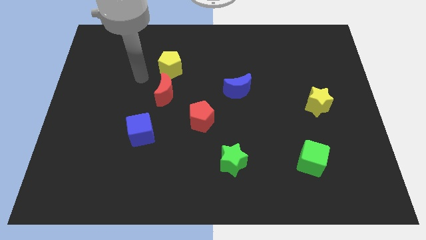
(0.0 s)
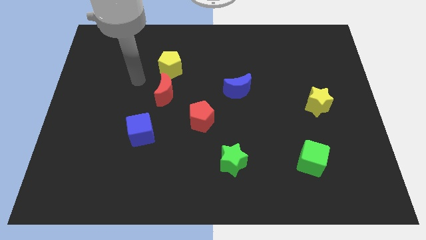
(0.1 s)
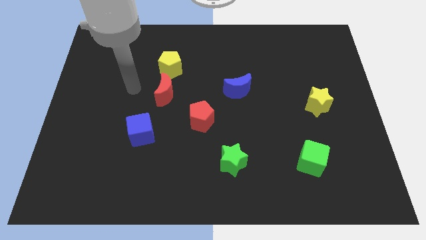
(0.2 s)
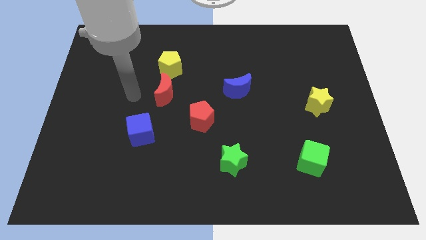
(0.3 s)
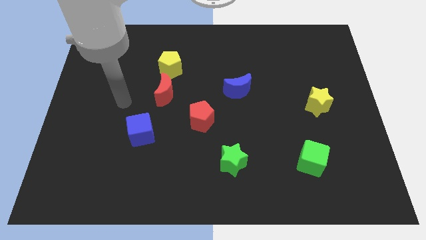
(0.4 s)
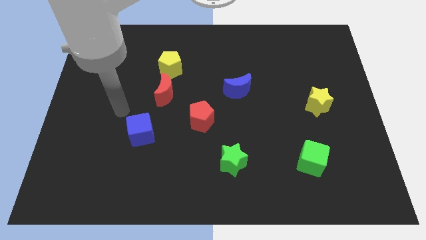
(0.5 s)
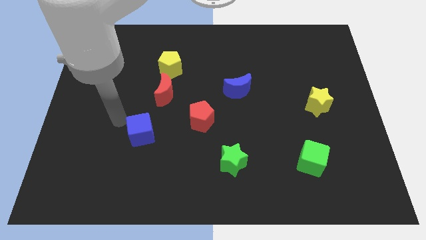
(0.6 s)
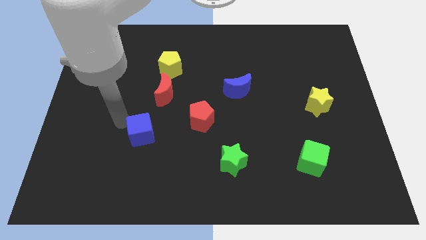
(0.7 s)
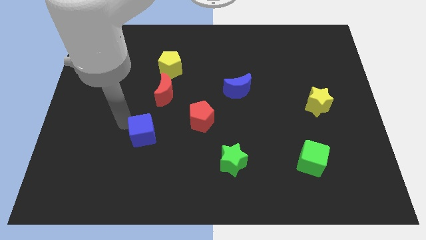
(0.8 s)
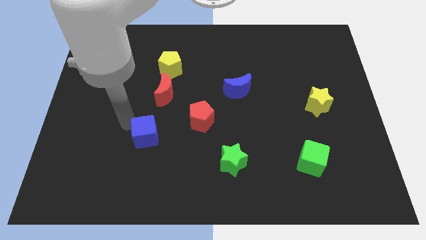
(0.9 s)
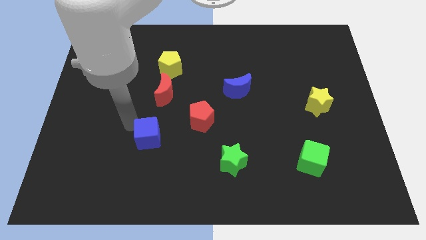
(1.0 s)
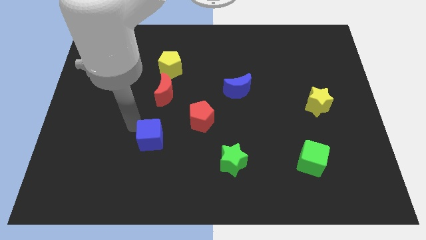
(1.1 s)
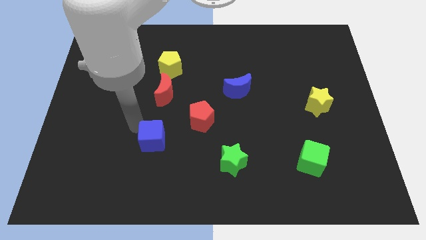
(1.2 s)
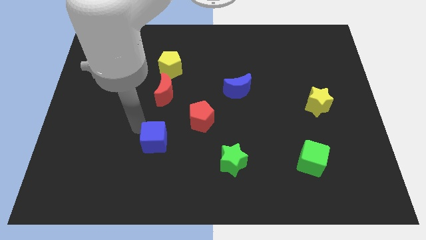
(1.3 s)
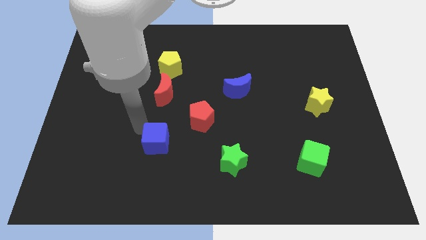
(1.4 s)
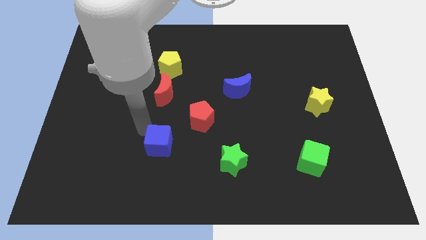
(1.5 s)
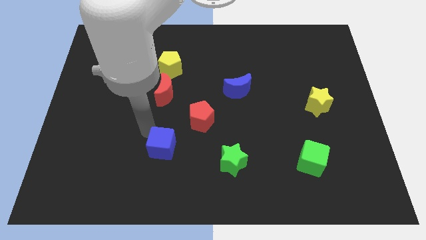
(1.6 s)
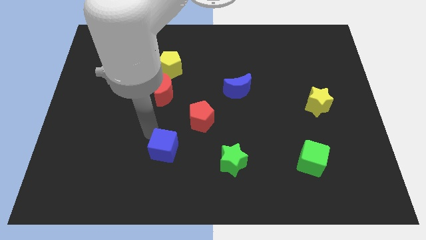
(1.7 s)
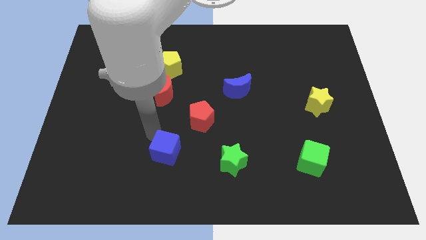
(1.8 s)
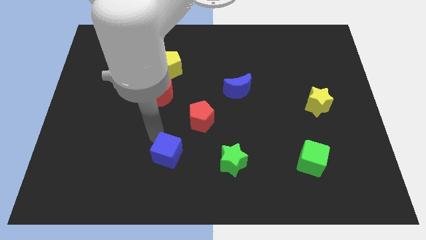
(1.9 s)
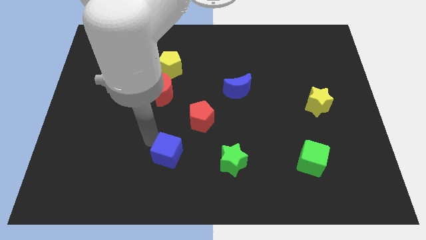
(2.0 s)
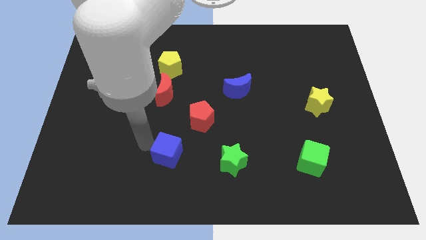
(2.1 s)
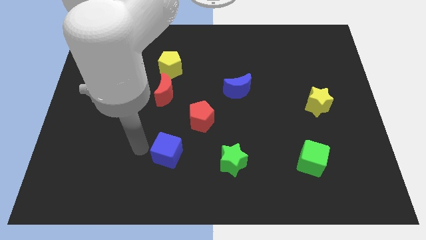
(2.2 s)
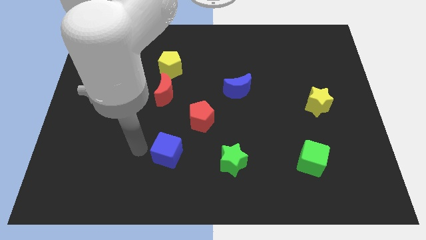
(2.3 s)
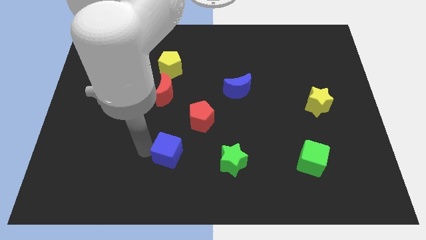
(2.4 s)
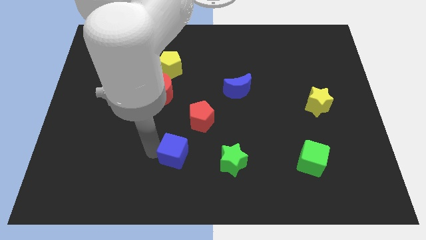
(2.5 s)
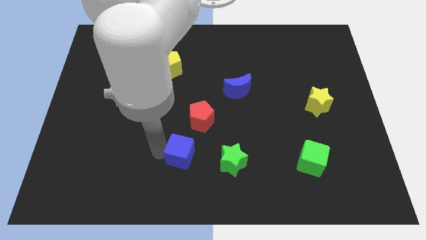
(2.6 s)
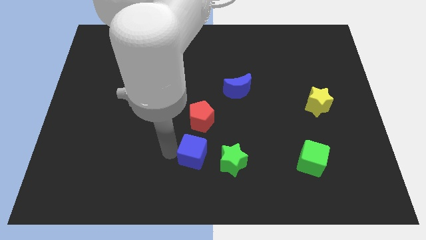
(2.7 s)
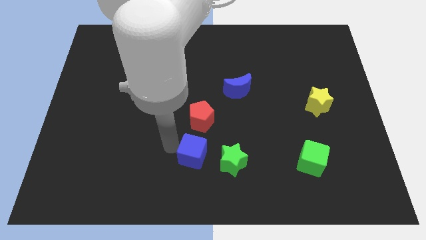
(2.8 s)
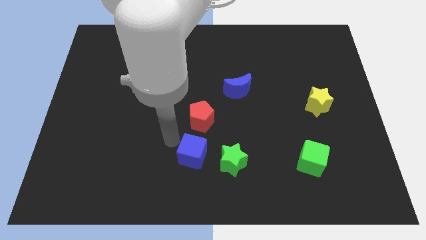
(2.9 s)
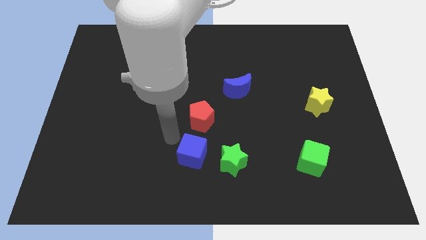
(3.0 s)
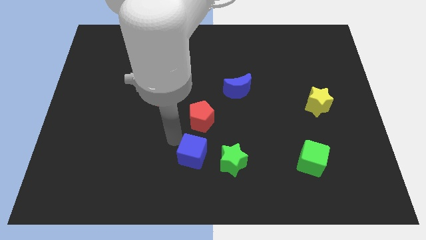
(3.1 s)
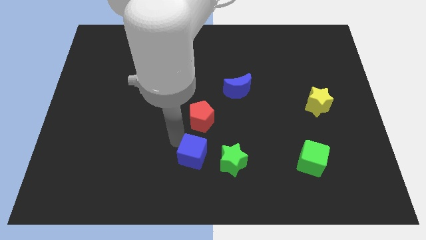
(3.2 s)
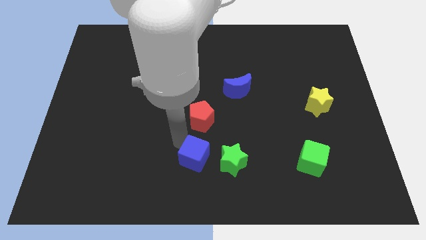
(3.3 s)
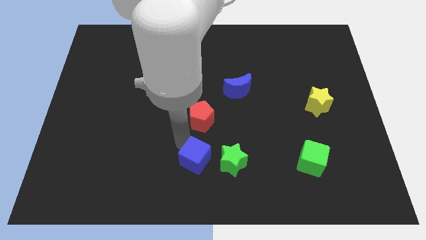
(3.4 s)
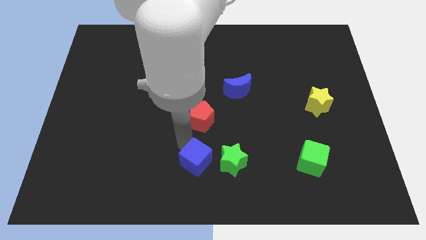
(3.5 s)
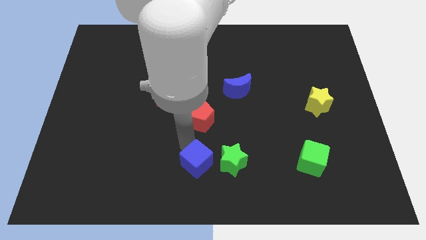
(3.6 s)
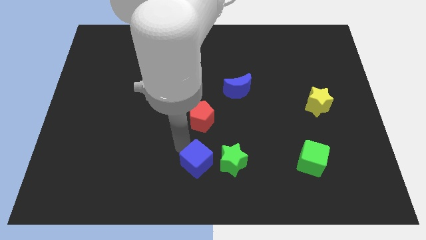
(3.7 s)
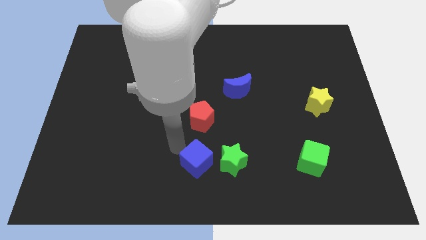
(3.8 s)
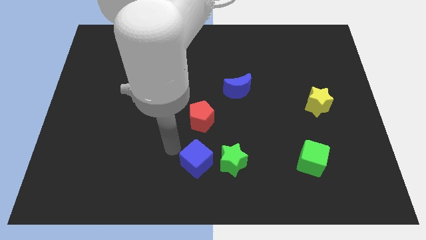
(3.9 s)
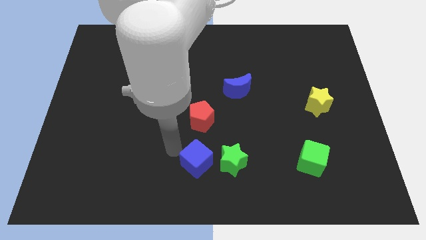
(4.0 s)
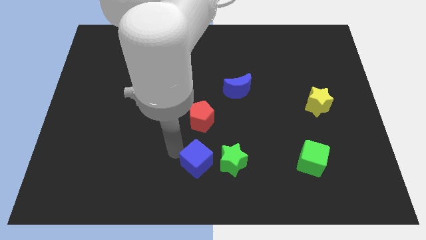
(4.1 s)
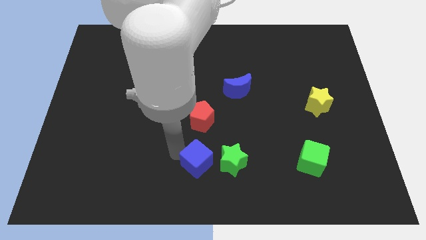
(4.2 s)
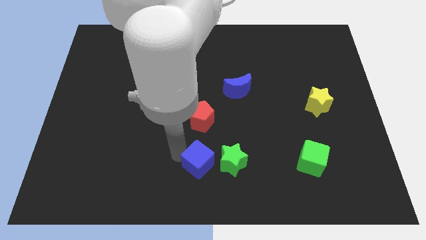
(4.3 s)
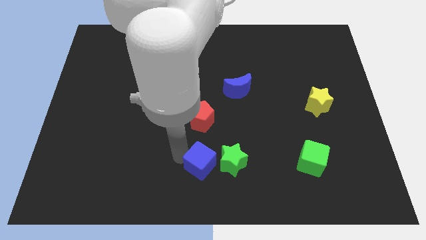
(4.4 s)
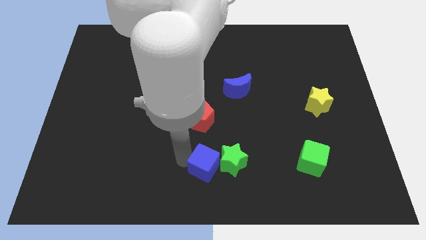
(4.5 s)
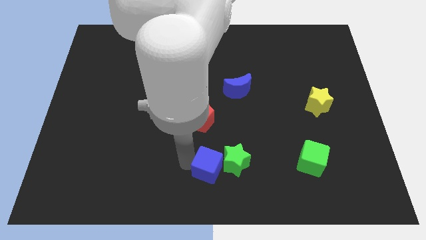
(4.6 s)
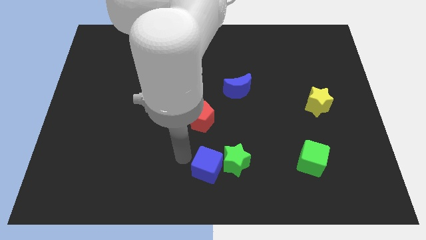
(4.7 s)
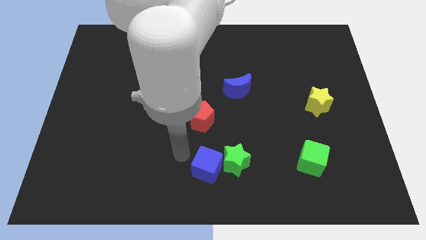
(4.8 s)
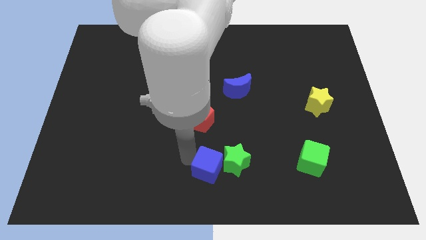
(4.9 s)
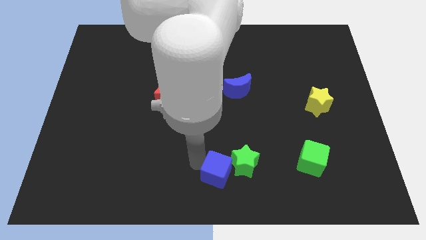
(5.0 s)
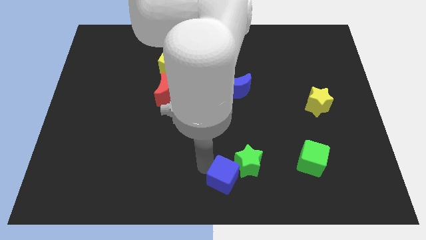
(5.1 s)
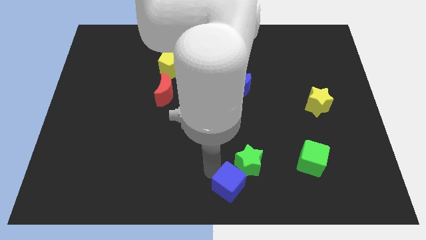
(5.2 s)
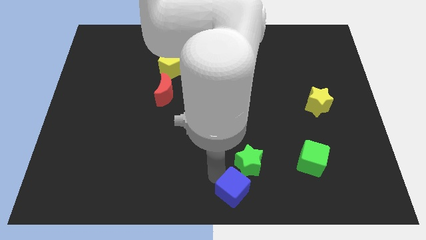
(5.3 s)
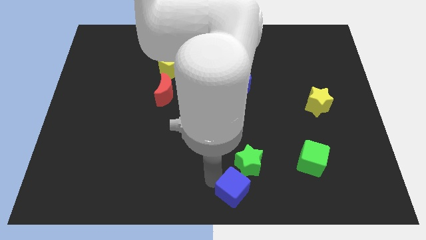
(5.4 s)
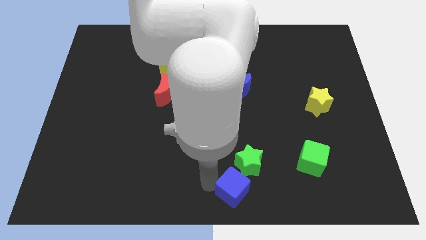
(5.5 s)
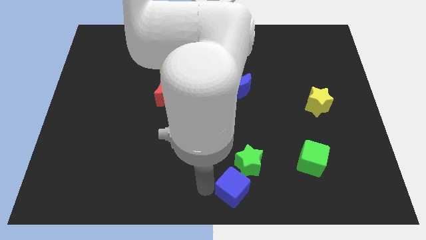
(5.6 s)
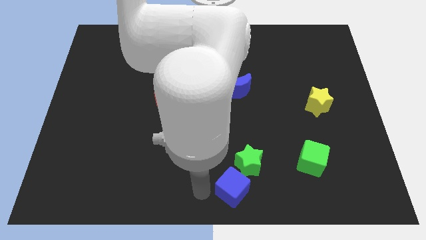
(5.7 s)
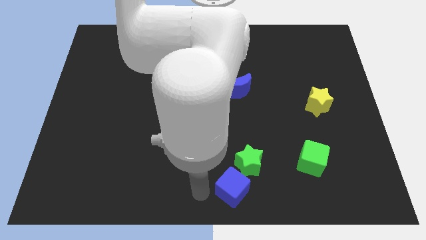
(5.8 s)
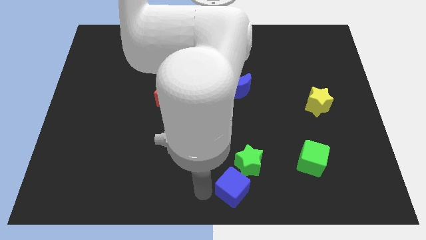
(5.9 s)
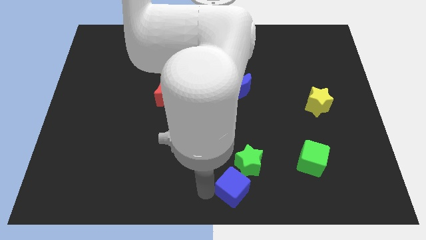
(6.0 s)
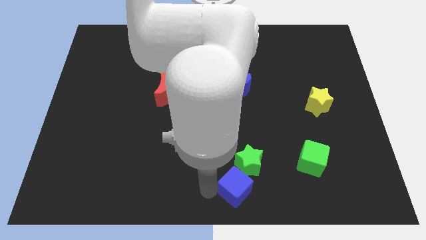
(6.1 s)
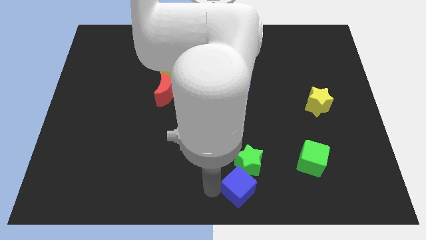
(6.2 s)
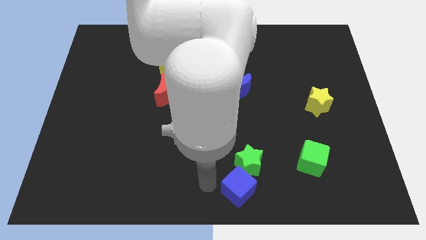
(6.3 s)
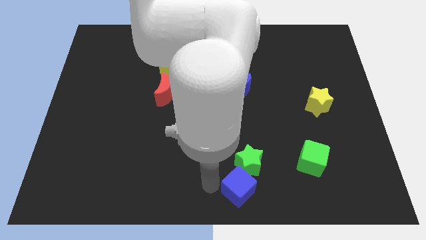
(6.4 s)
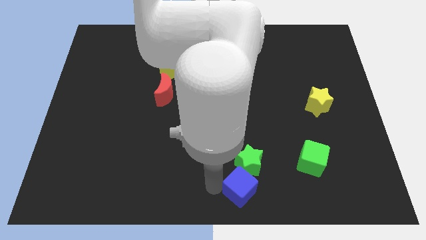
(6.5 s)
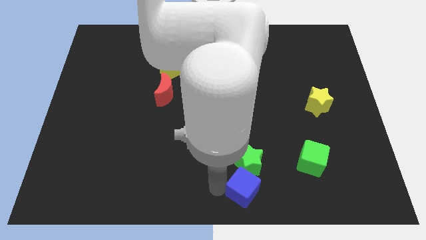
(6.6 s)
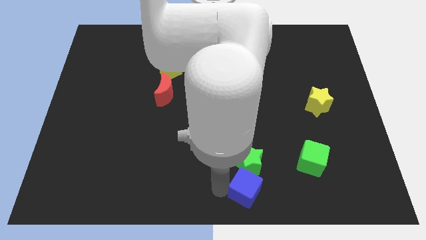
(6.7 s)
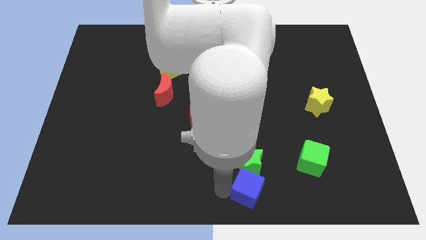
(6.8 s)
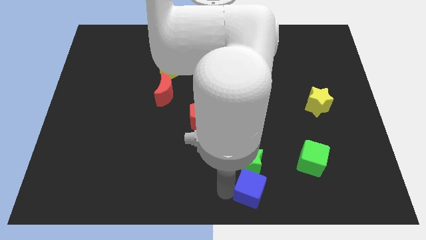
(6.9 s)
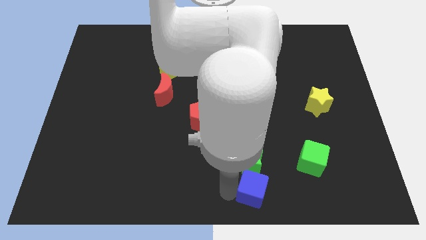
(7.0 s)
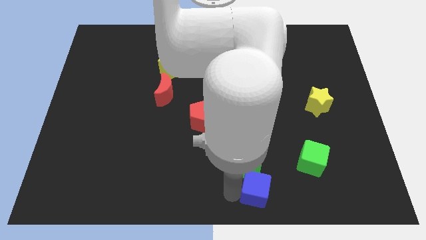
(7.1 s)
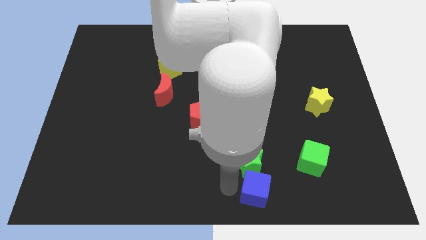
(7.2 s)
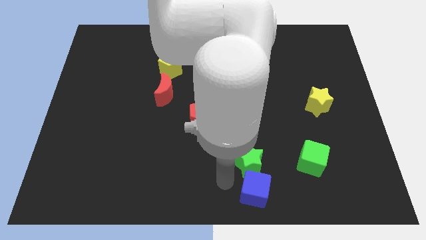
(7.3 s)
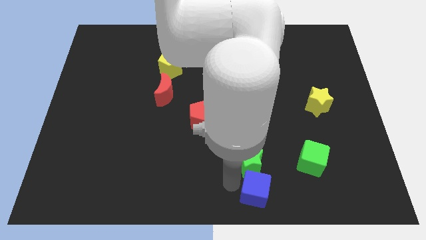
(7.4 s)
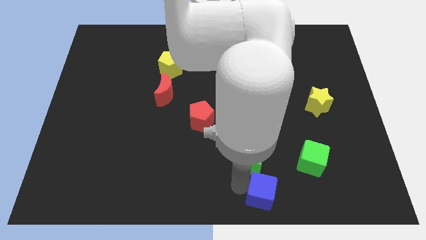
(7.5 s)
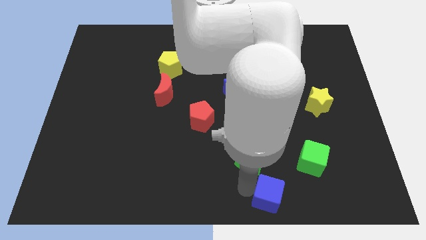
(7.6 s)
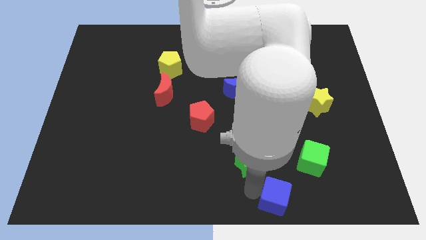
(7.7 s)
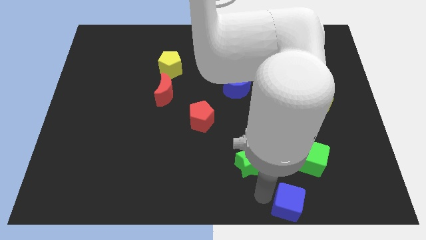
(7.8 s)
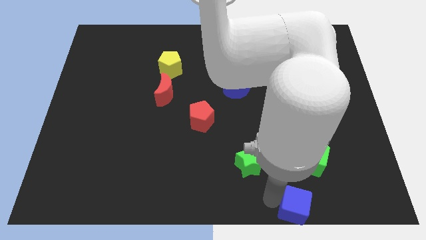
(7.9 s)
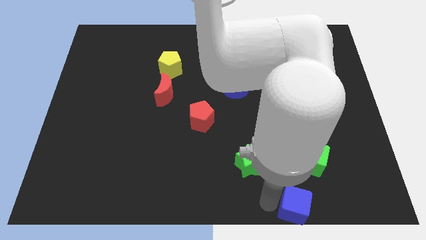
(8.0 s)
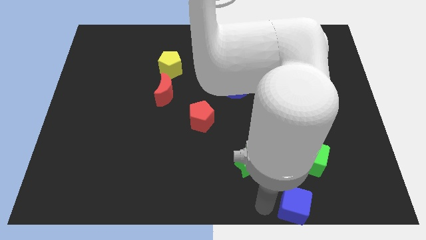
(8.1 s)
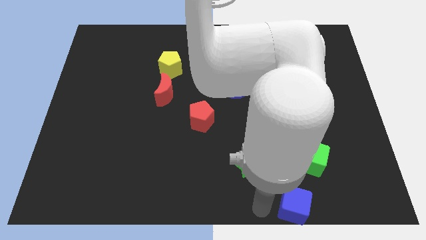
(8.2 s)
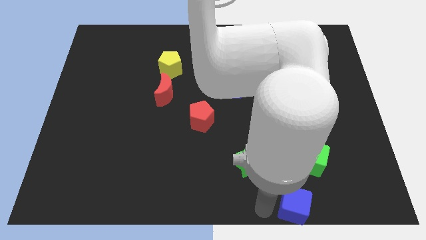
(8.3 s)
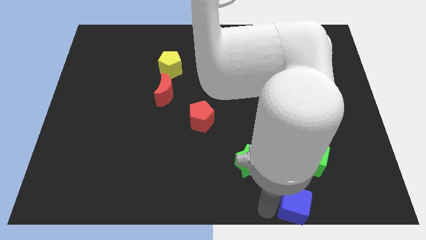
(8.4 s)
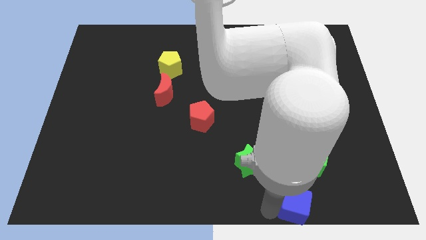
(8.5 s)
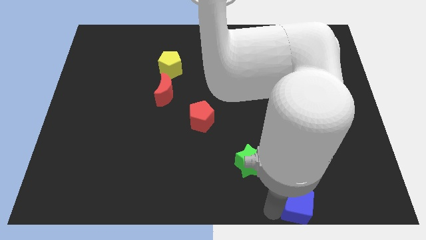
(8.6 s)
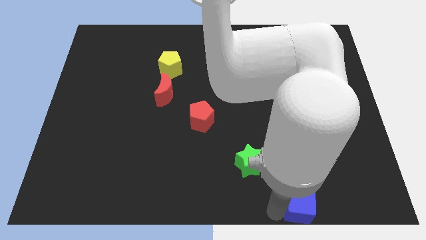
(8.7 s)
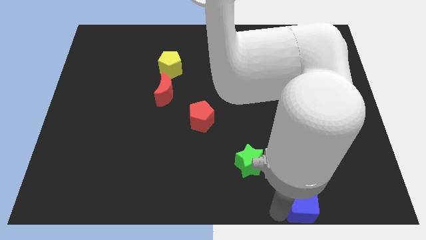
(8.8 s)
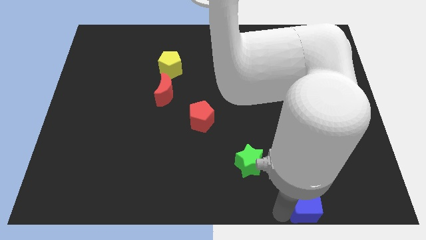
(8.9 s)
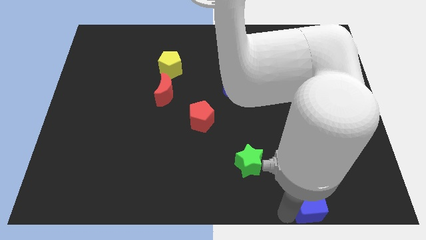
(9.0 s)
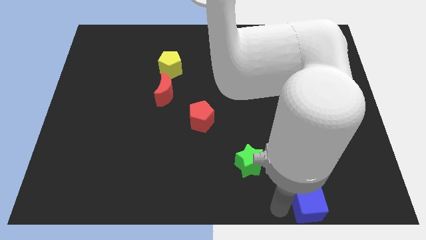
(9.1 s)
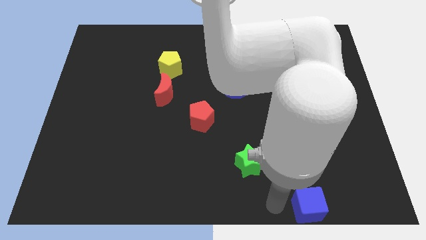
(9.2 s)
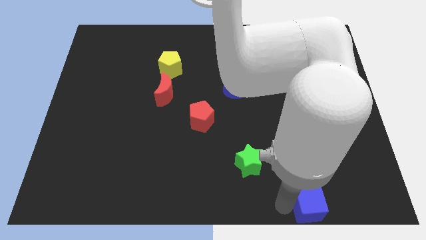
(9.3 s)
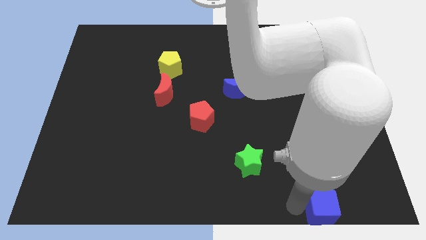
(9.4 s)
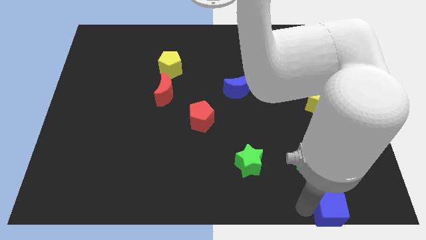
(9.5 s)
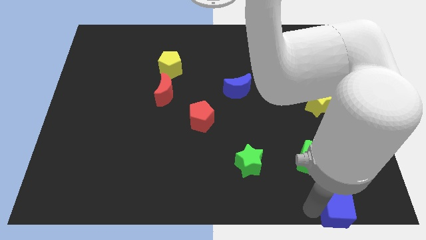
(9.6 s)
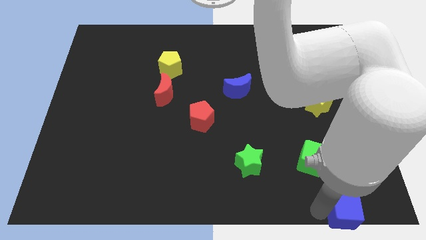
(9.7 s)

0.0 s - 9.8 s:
put the blue cube to the bottom right of the board
